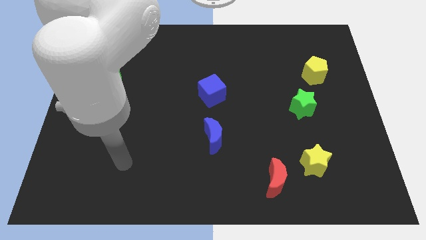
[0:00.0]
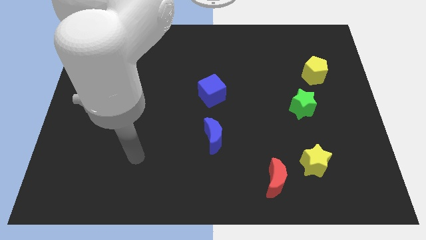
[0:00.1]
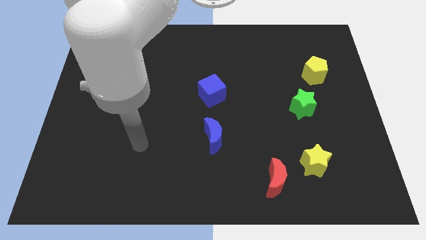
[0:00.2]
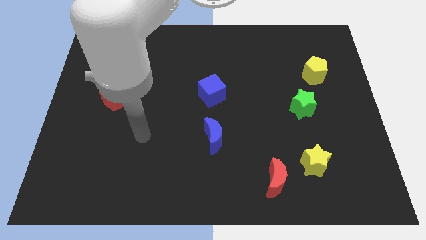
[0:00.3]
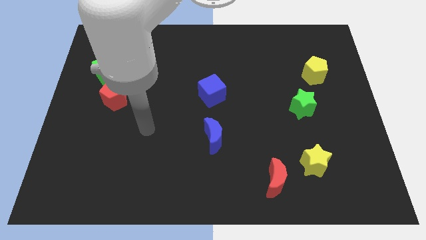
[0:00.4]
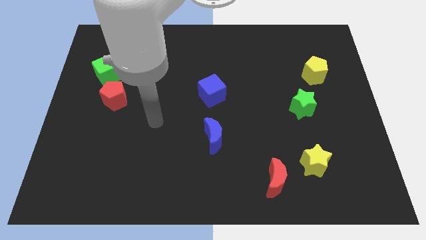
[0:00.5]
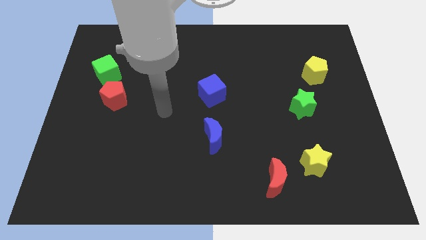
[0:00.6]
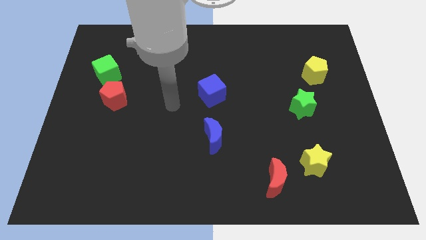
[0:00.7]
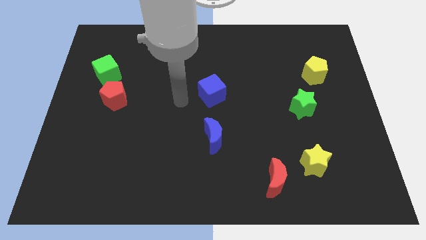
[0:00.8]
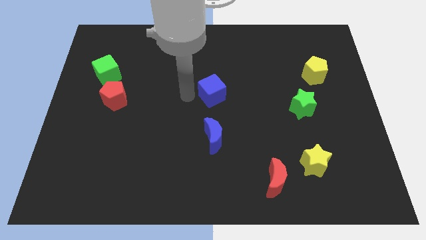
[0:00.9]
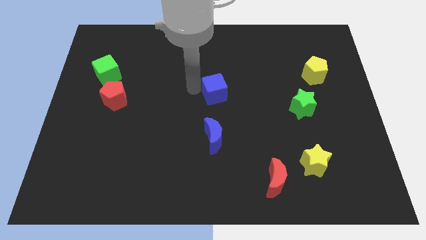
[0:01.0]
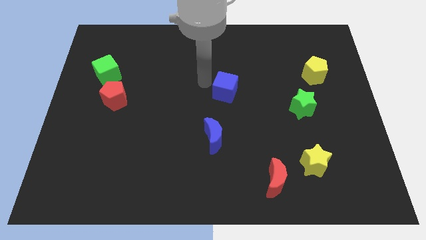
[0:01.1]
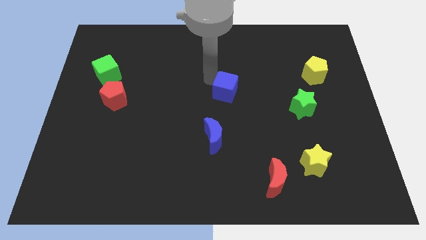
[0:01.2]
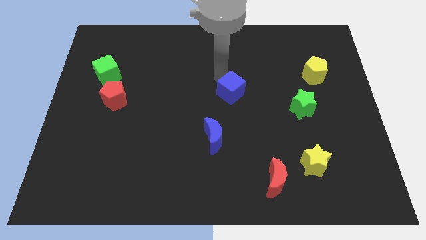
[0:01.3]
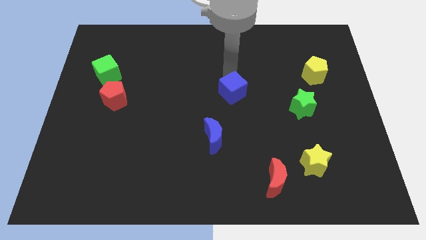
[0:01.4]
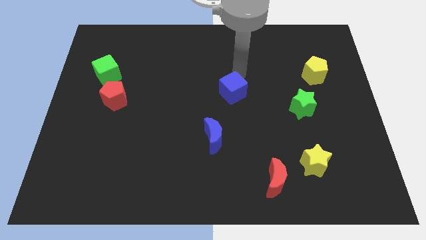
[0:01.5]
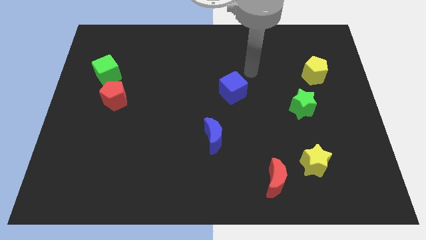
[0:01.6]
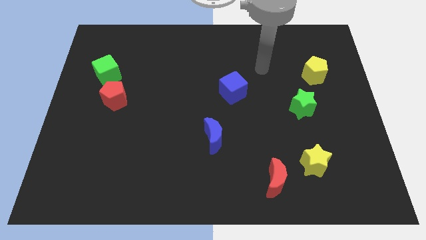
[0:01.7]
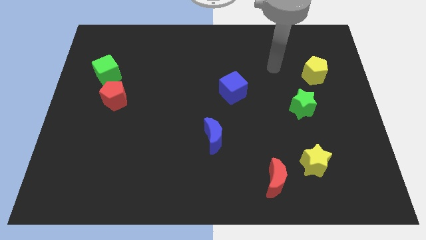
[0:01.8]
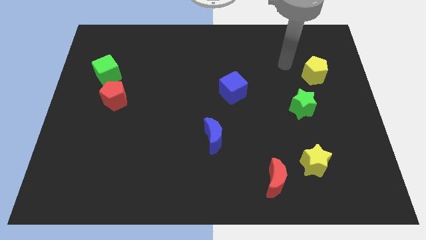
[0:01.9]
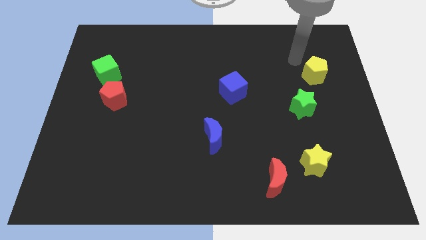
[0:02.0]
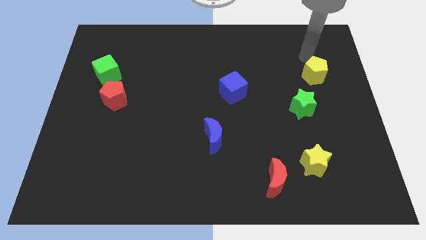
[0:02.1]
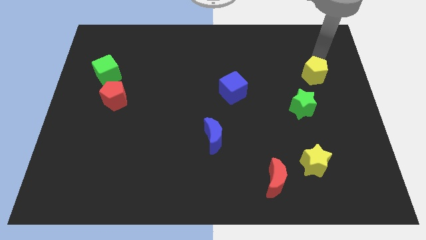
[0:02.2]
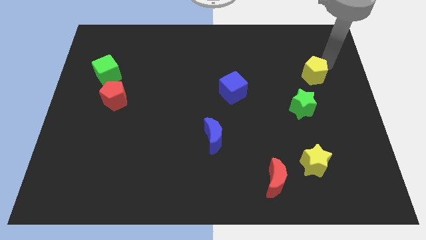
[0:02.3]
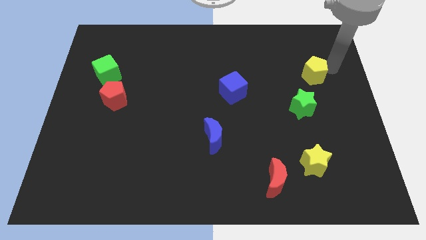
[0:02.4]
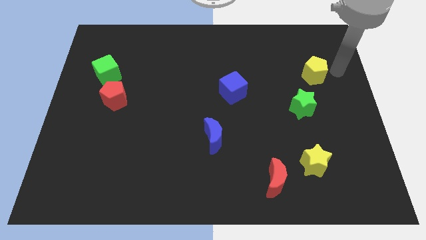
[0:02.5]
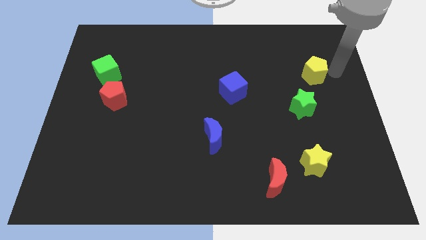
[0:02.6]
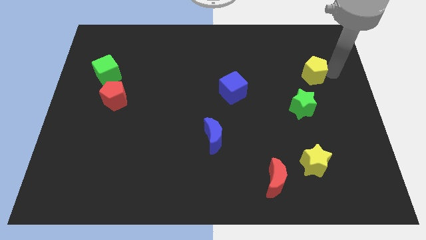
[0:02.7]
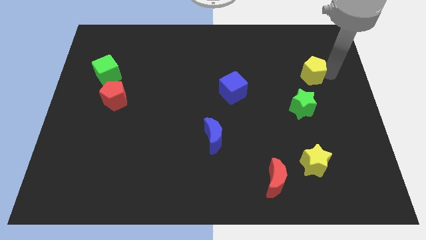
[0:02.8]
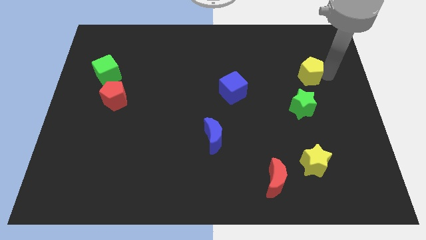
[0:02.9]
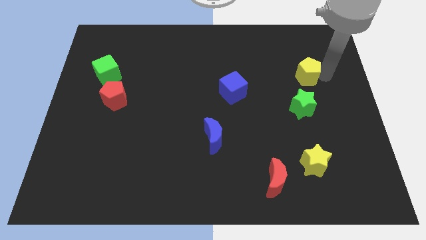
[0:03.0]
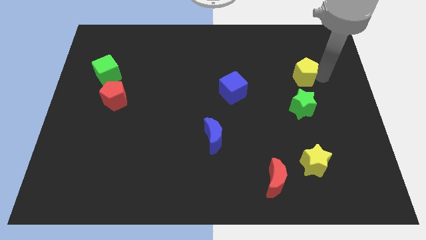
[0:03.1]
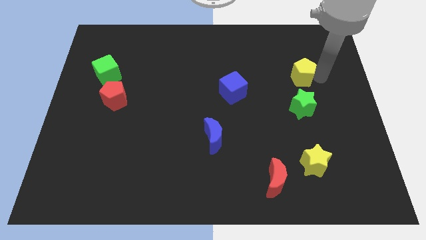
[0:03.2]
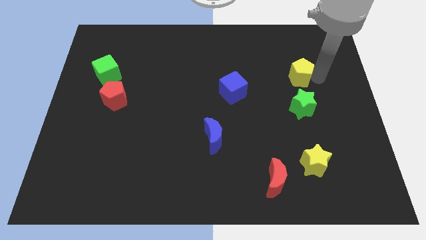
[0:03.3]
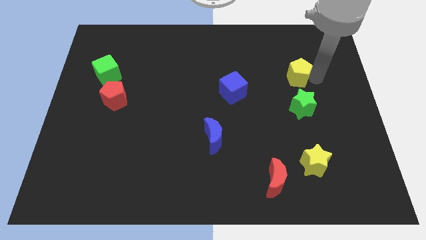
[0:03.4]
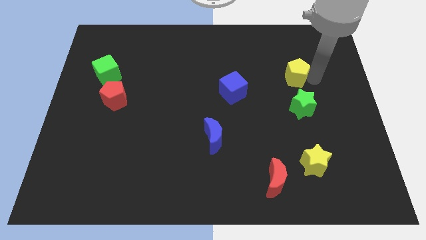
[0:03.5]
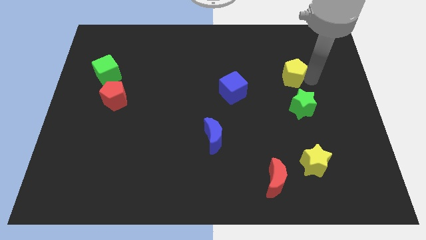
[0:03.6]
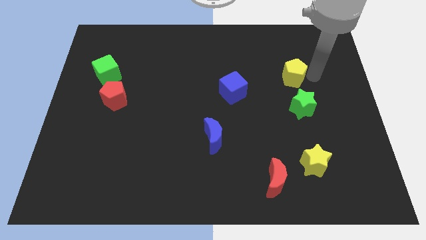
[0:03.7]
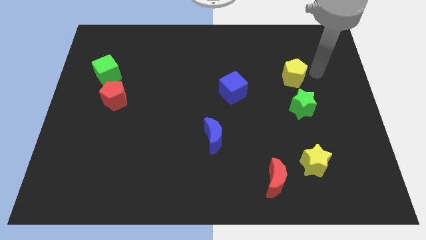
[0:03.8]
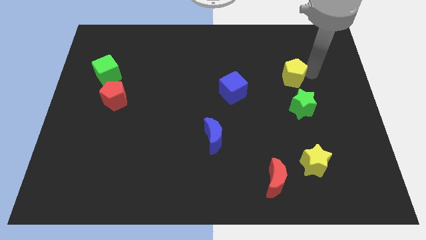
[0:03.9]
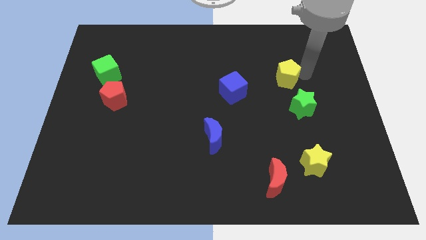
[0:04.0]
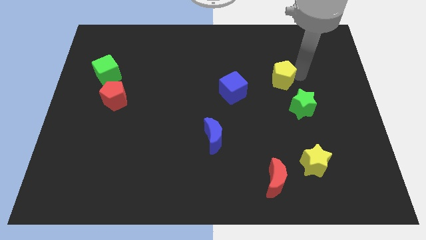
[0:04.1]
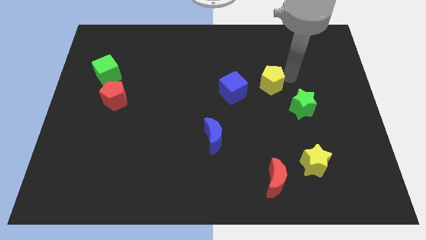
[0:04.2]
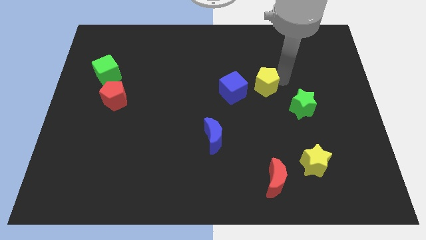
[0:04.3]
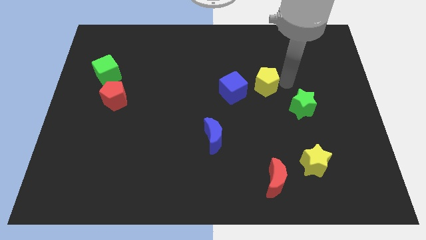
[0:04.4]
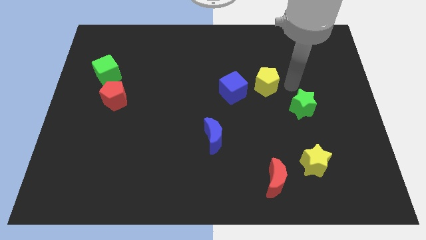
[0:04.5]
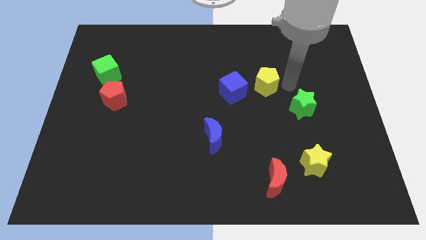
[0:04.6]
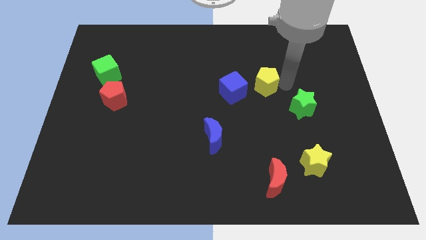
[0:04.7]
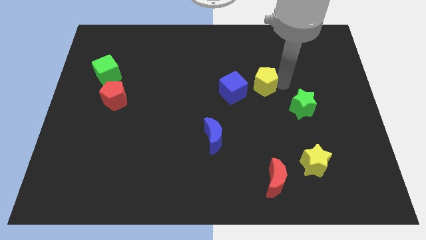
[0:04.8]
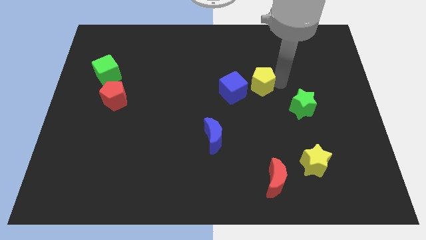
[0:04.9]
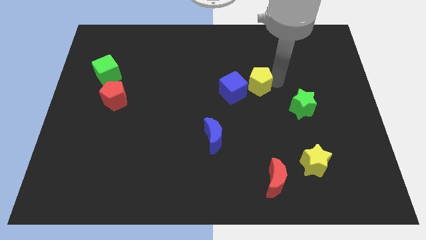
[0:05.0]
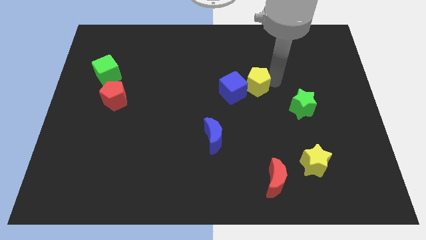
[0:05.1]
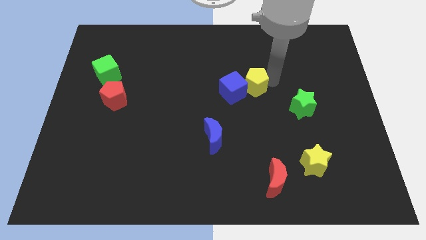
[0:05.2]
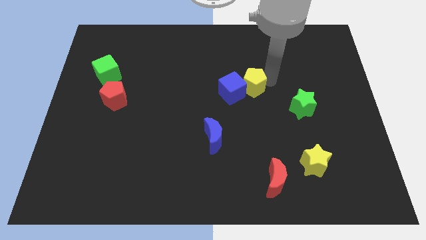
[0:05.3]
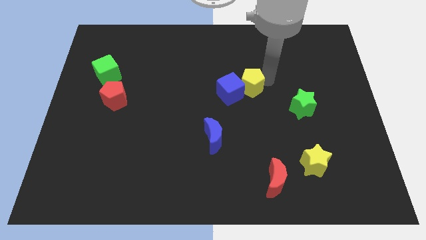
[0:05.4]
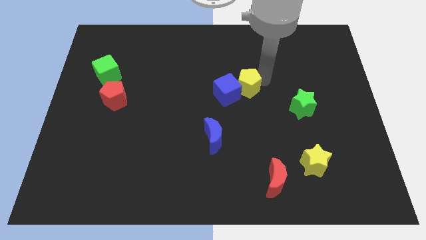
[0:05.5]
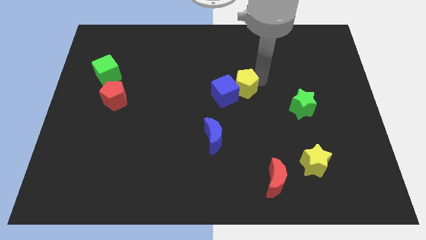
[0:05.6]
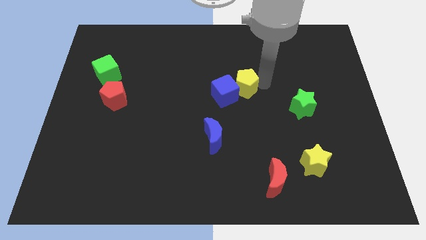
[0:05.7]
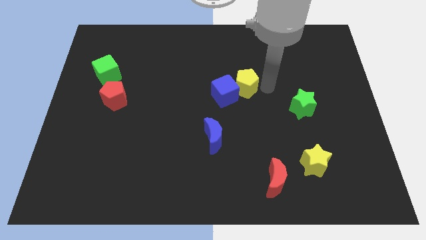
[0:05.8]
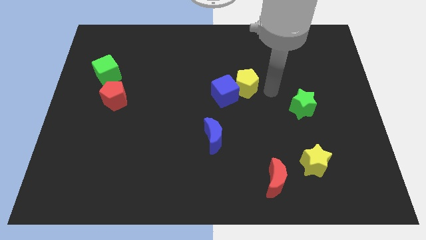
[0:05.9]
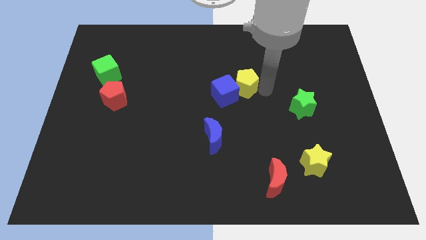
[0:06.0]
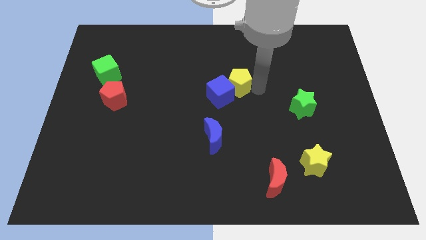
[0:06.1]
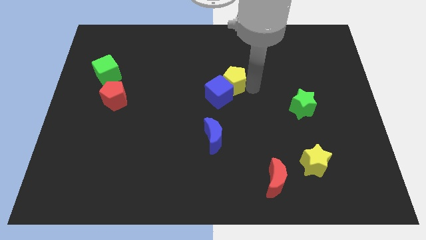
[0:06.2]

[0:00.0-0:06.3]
slide the yellow pentagon to the left

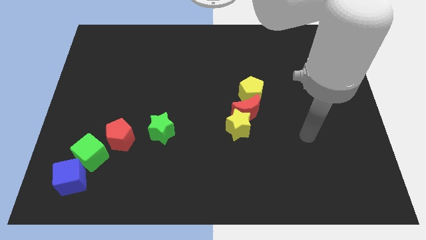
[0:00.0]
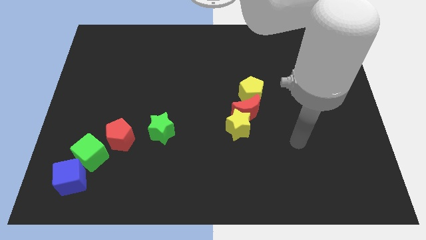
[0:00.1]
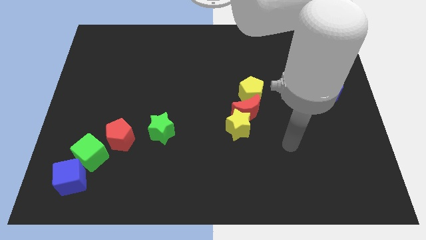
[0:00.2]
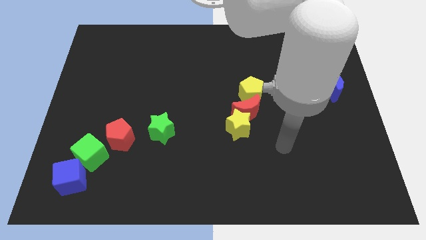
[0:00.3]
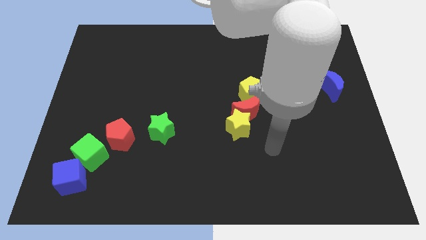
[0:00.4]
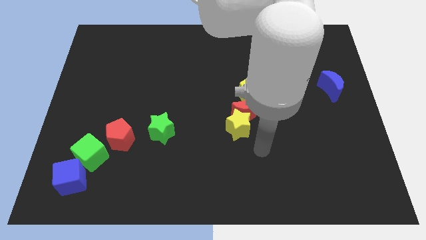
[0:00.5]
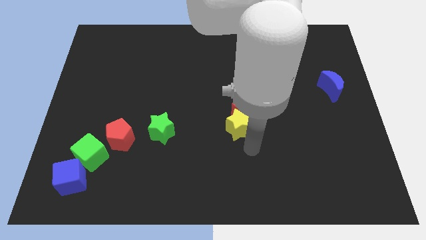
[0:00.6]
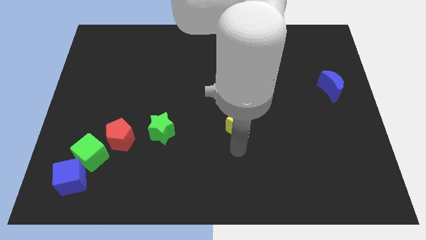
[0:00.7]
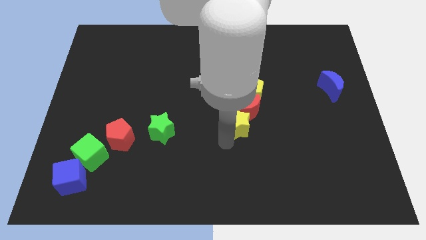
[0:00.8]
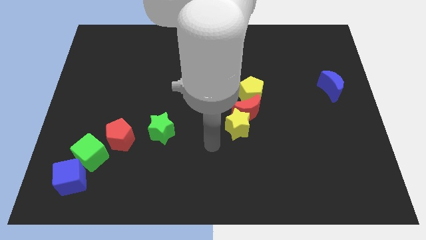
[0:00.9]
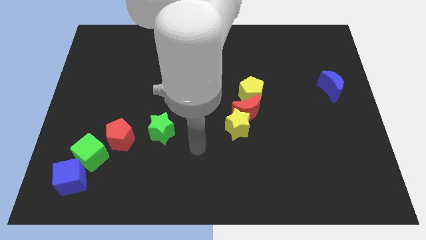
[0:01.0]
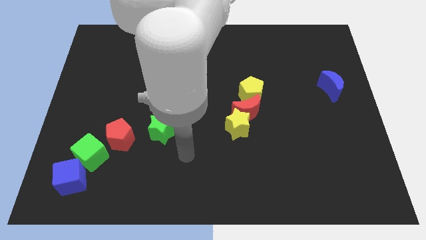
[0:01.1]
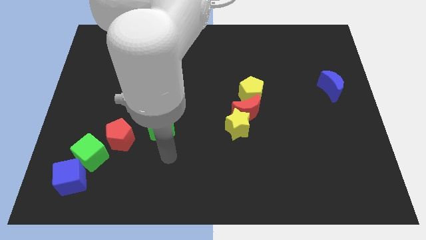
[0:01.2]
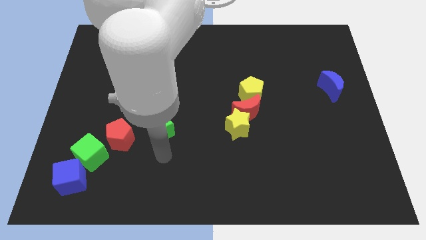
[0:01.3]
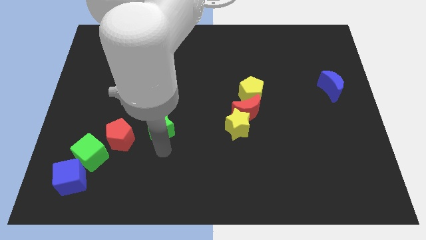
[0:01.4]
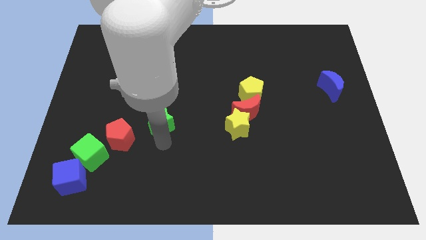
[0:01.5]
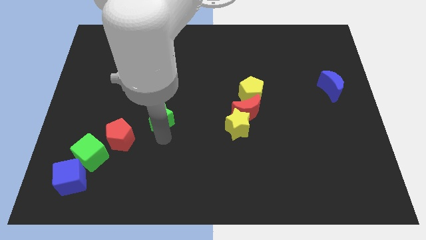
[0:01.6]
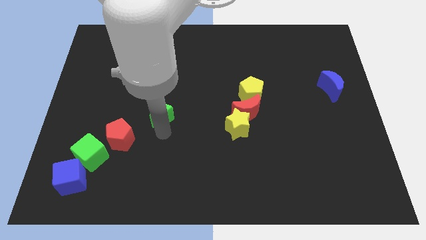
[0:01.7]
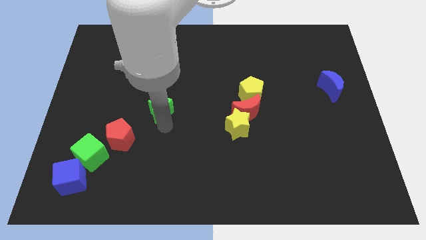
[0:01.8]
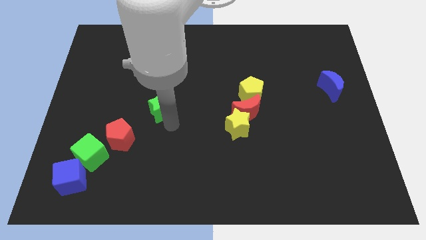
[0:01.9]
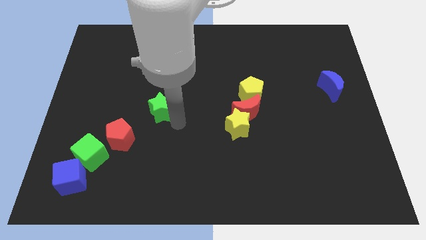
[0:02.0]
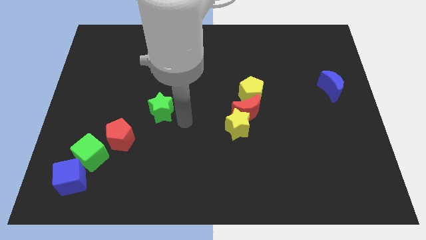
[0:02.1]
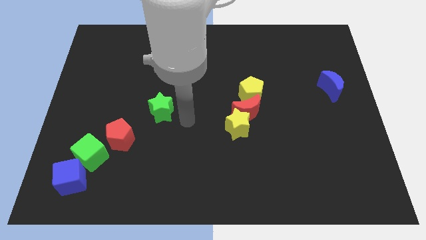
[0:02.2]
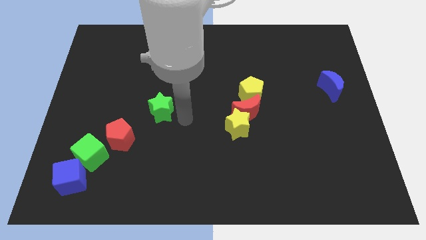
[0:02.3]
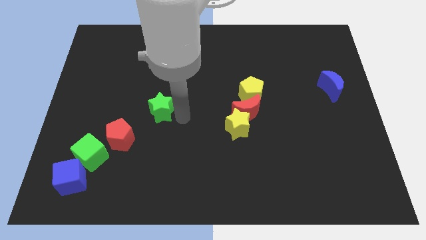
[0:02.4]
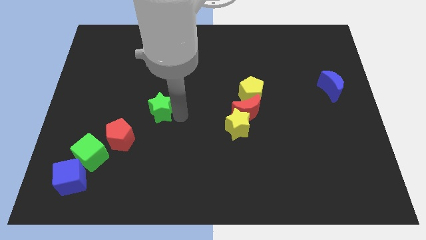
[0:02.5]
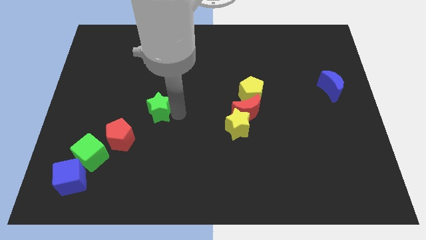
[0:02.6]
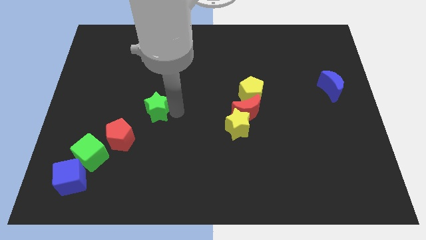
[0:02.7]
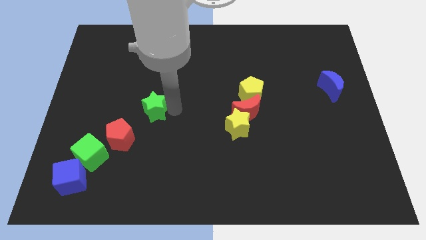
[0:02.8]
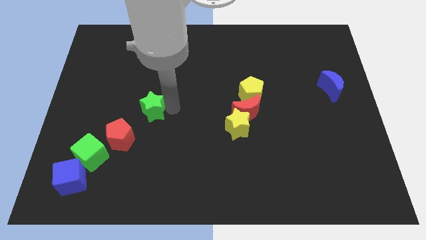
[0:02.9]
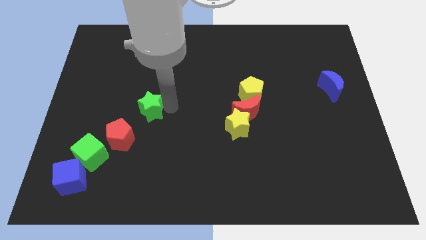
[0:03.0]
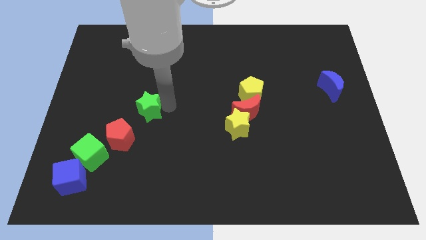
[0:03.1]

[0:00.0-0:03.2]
move the green star slightly diagonally up and to the left
